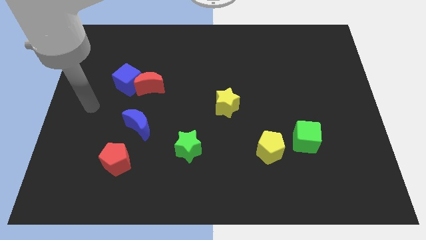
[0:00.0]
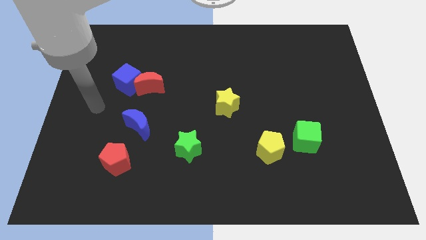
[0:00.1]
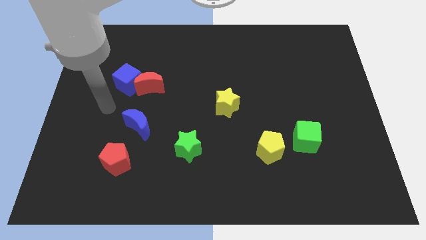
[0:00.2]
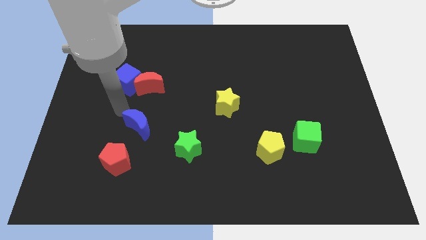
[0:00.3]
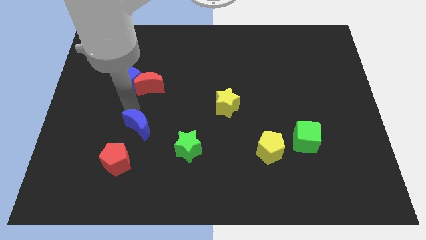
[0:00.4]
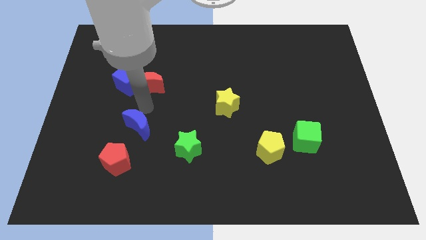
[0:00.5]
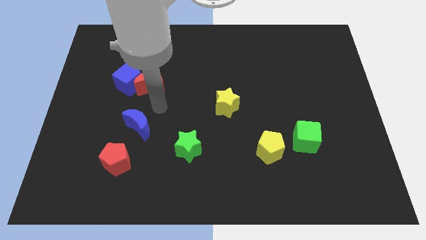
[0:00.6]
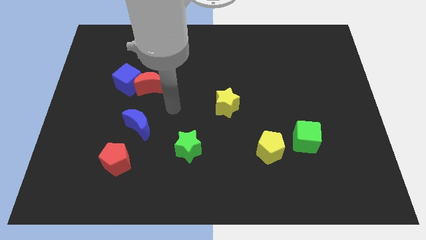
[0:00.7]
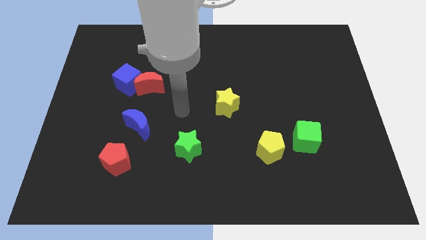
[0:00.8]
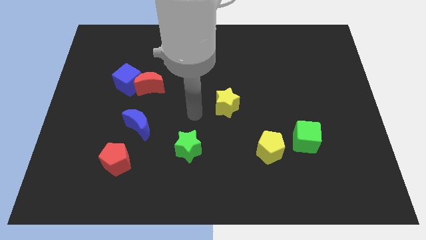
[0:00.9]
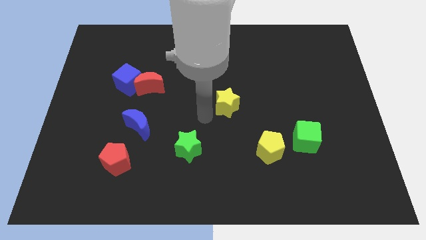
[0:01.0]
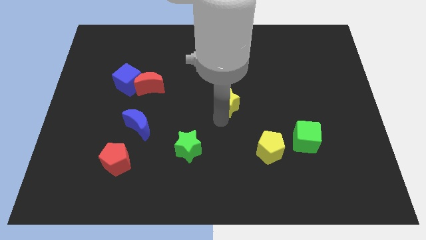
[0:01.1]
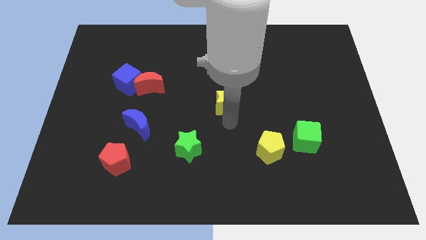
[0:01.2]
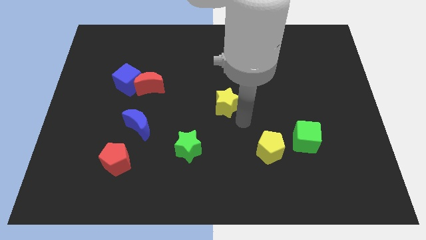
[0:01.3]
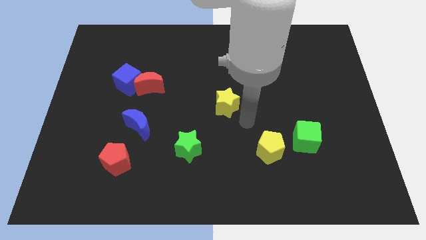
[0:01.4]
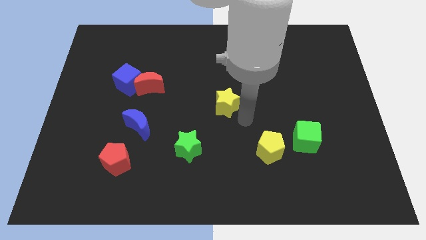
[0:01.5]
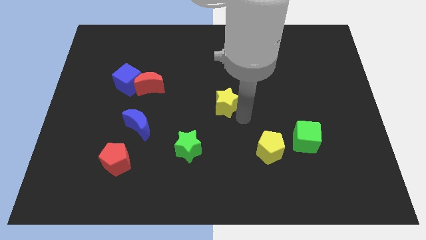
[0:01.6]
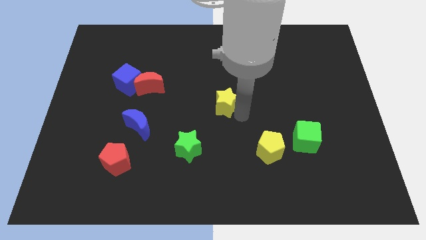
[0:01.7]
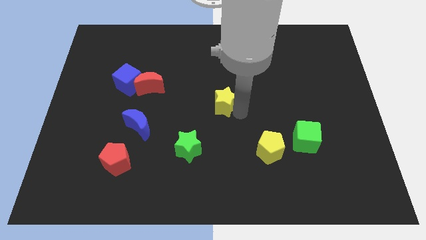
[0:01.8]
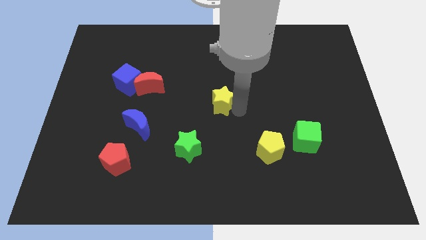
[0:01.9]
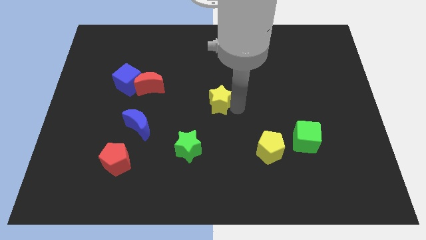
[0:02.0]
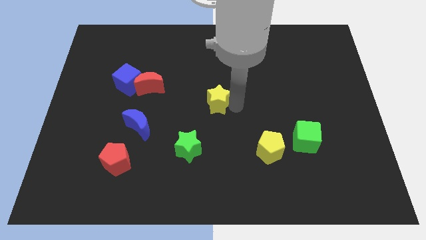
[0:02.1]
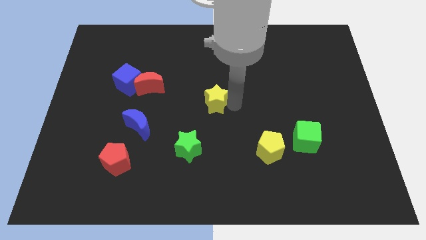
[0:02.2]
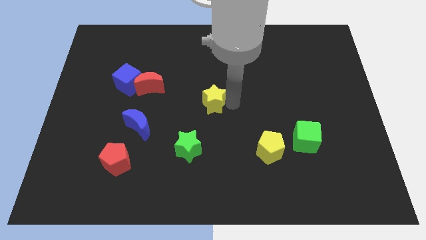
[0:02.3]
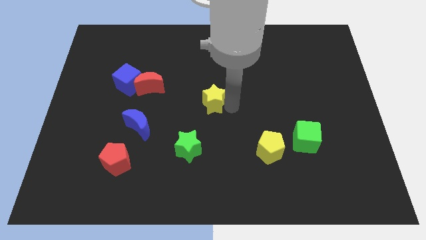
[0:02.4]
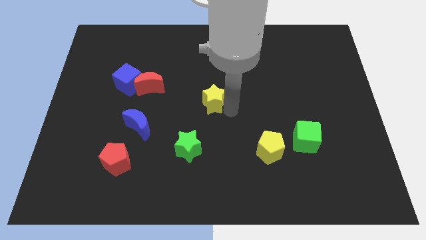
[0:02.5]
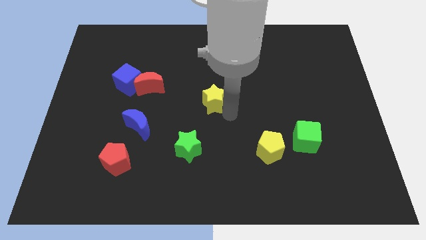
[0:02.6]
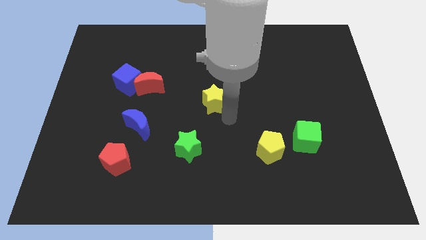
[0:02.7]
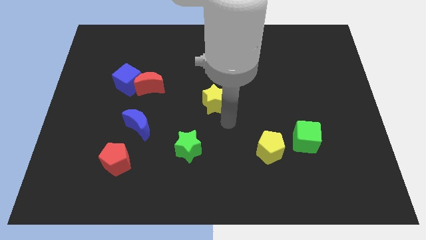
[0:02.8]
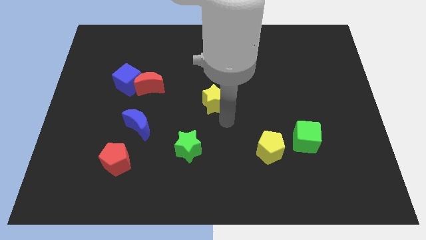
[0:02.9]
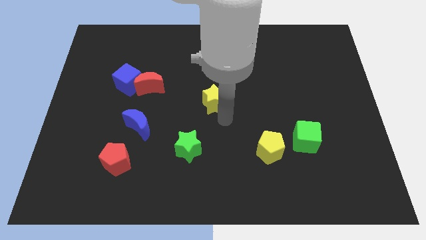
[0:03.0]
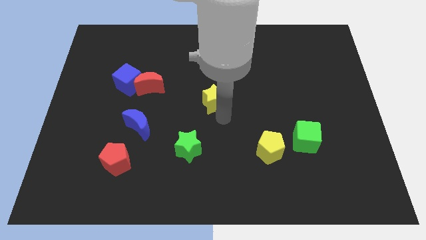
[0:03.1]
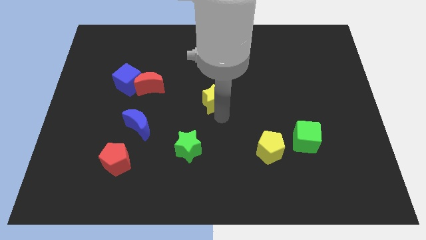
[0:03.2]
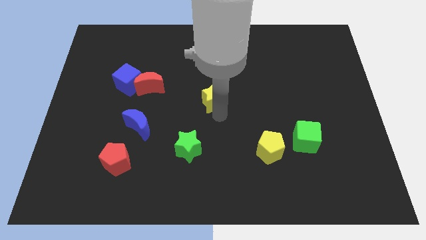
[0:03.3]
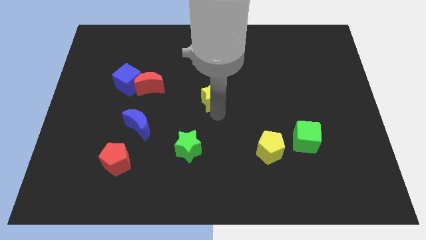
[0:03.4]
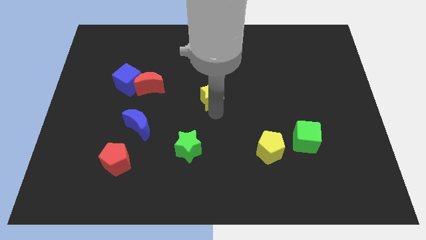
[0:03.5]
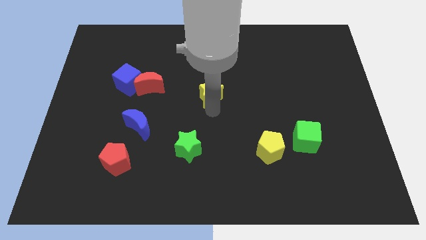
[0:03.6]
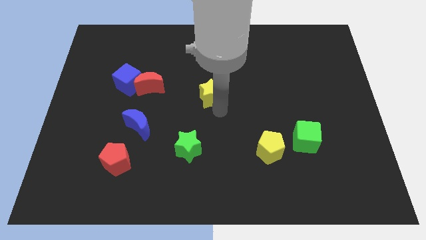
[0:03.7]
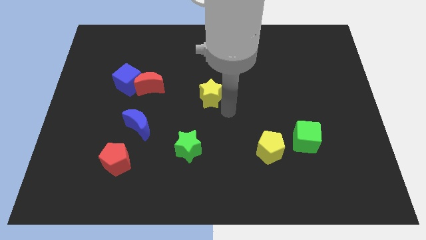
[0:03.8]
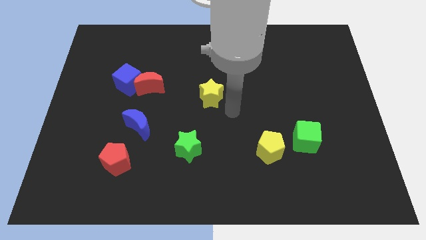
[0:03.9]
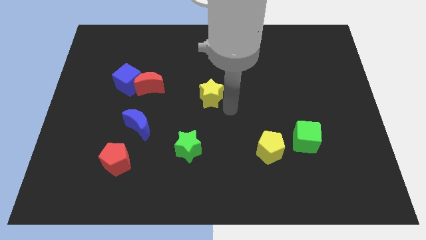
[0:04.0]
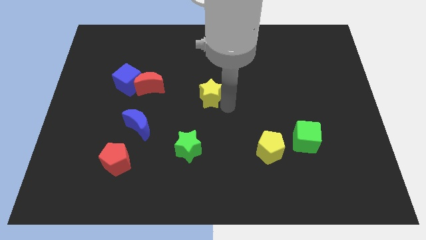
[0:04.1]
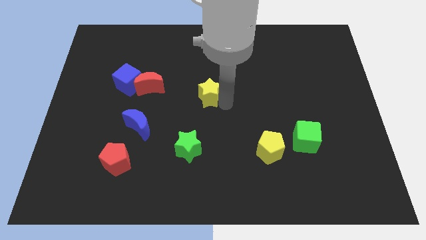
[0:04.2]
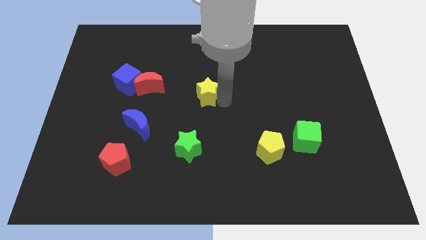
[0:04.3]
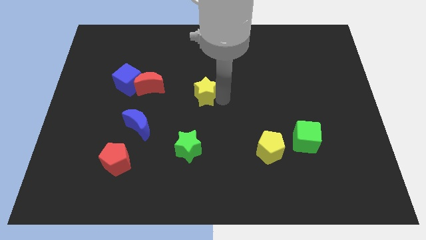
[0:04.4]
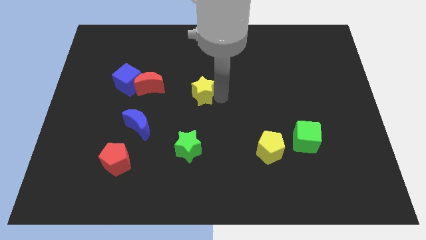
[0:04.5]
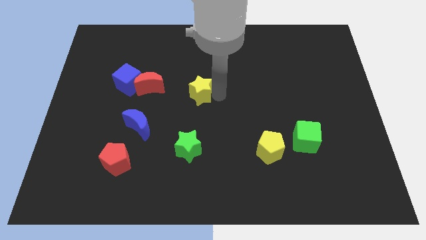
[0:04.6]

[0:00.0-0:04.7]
slide the yellow star up and left diagonally a little bit

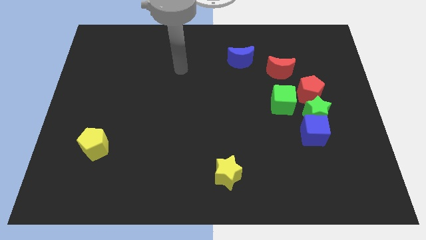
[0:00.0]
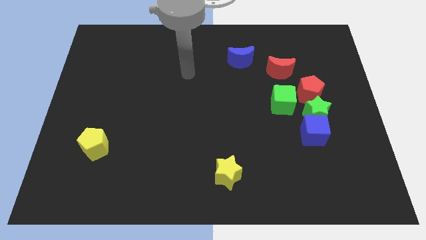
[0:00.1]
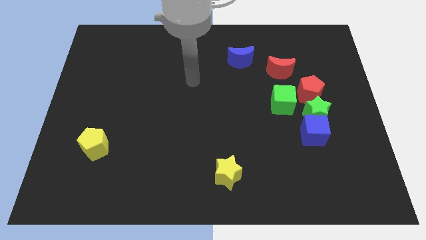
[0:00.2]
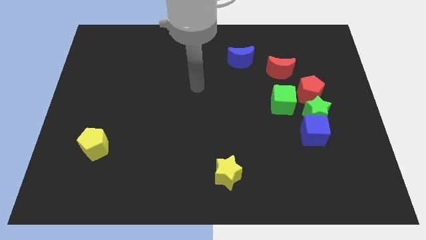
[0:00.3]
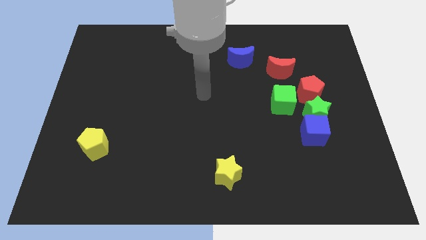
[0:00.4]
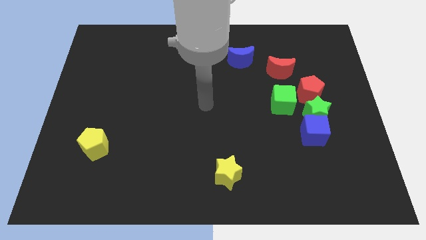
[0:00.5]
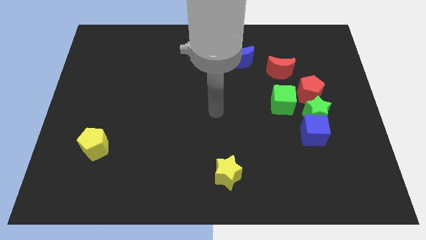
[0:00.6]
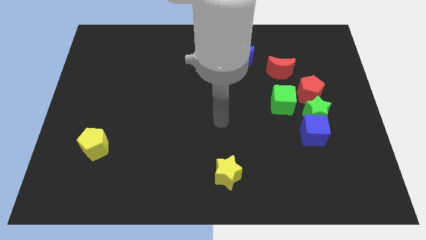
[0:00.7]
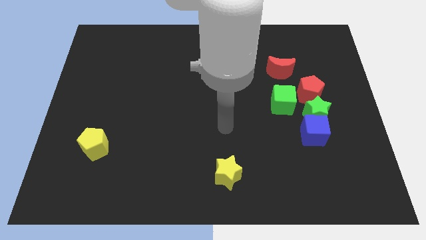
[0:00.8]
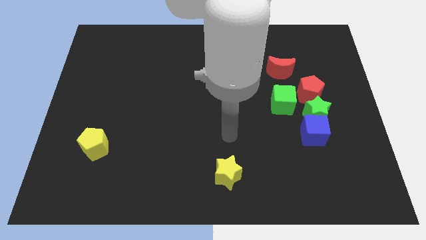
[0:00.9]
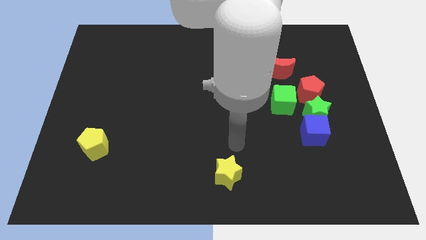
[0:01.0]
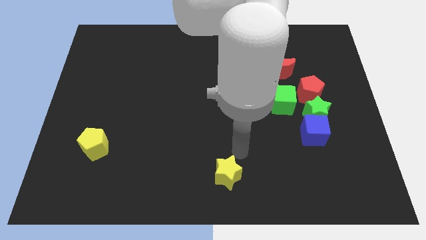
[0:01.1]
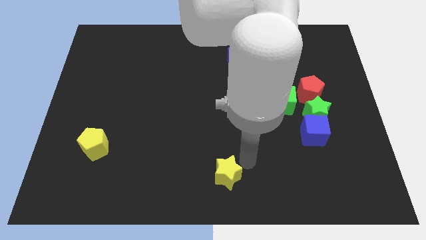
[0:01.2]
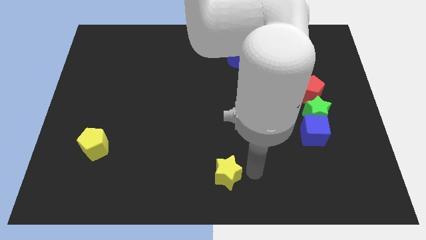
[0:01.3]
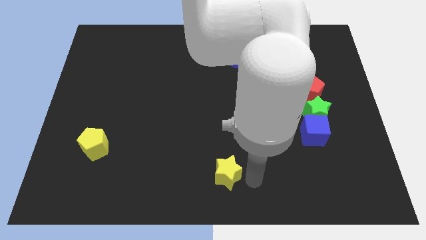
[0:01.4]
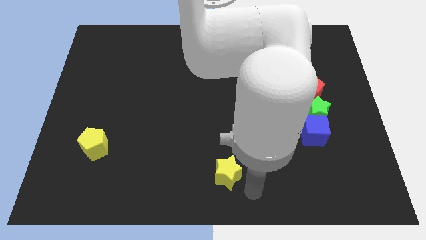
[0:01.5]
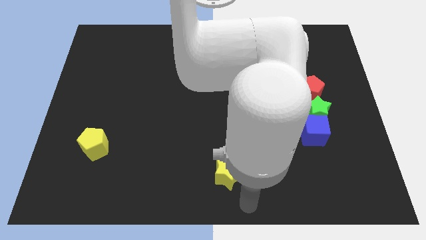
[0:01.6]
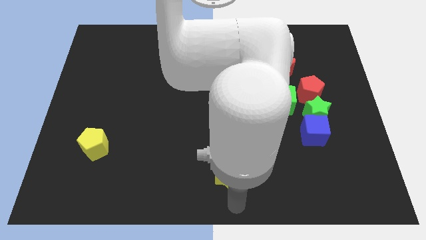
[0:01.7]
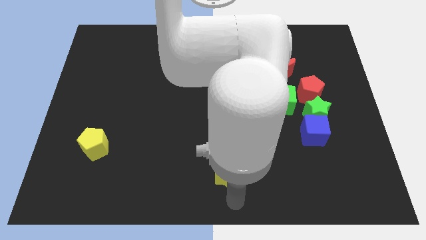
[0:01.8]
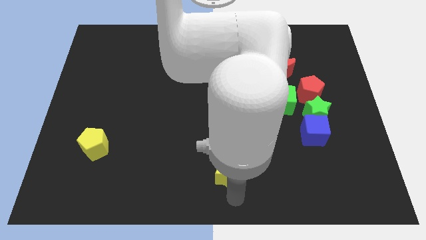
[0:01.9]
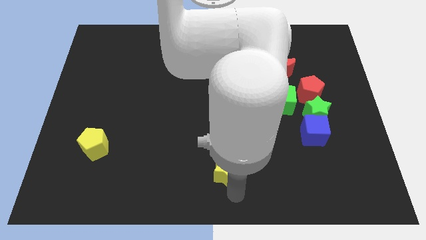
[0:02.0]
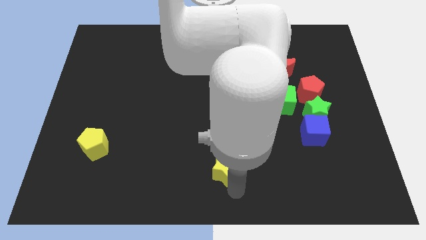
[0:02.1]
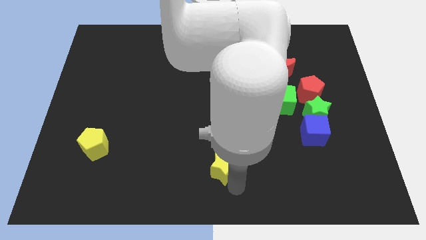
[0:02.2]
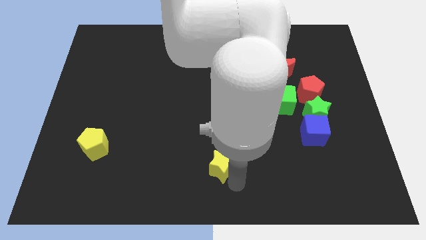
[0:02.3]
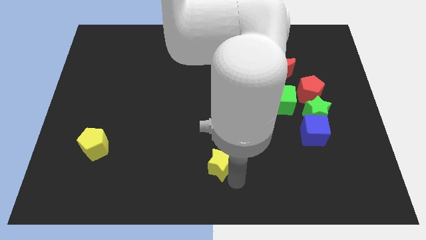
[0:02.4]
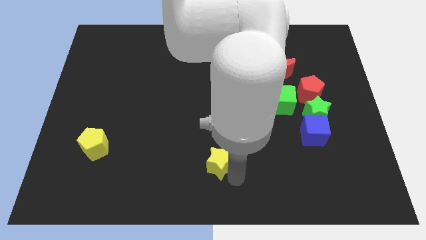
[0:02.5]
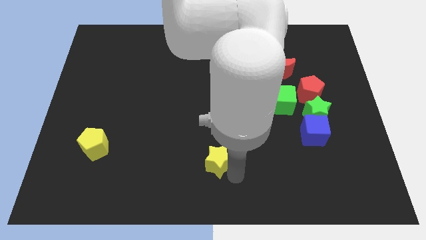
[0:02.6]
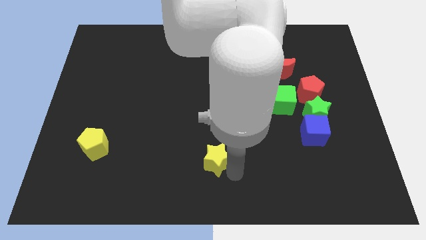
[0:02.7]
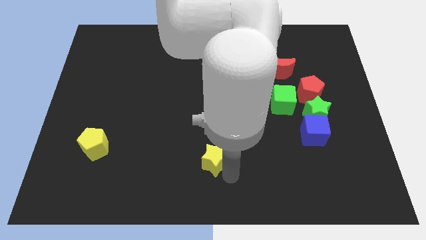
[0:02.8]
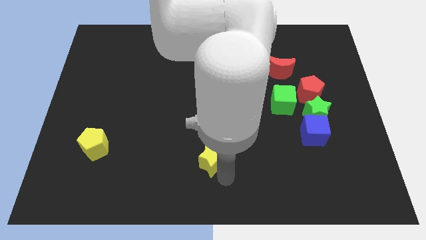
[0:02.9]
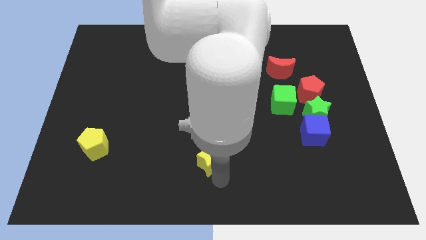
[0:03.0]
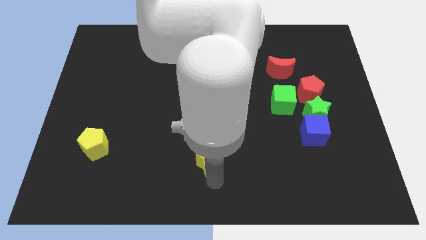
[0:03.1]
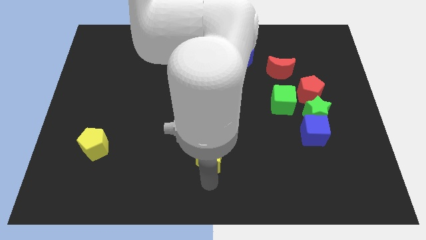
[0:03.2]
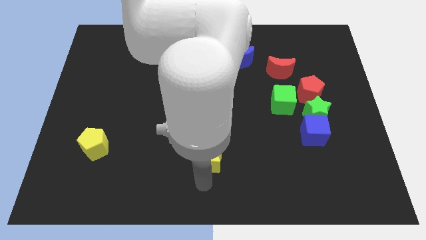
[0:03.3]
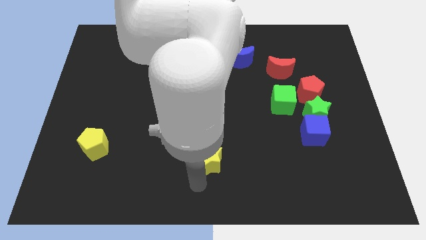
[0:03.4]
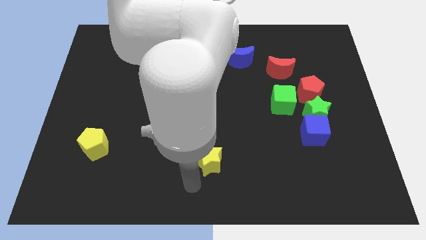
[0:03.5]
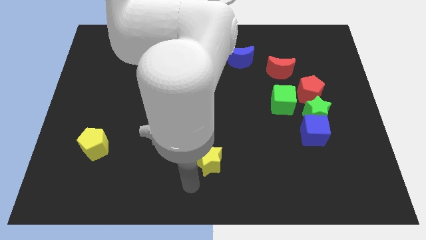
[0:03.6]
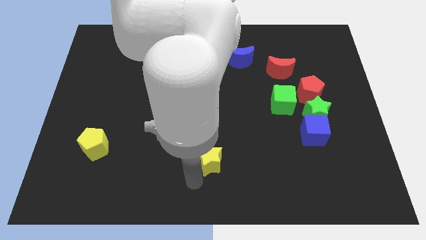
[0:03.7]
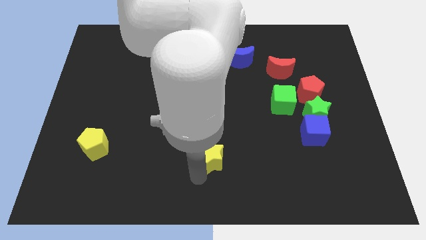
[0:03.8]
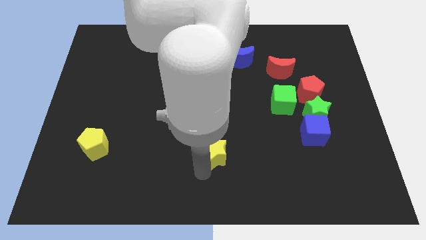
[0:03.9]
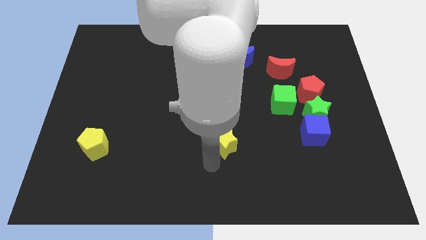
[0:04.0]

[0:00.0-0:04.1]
slide the yellow star upwards a little bit
